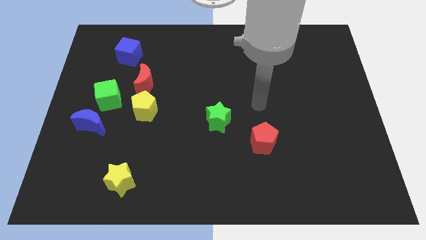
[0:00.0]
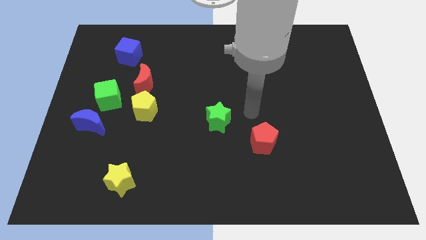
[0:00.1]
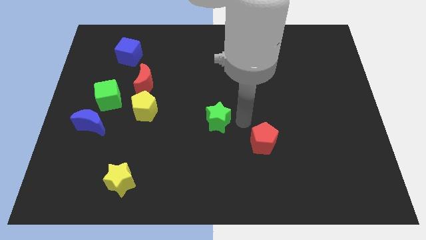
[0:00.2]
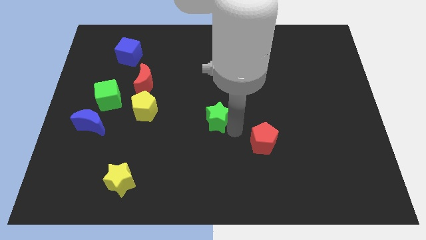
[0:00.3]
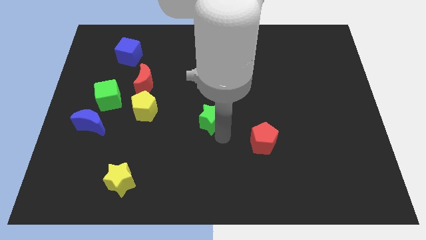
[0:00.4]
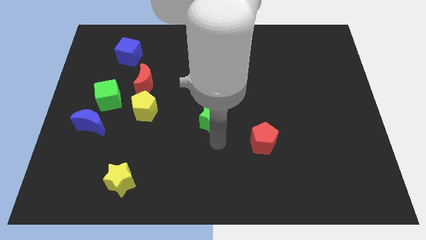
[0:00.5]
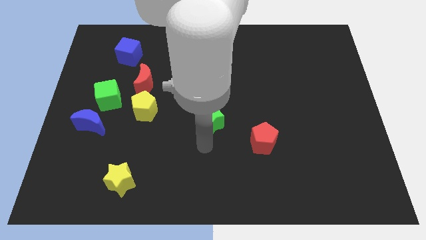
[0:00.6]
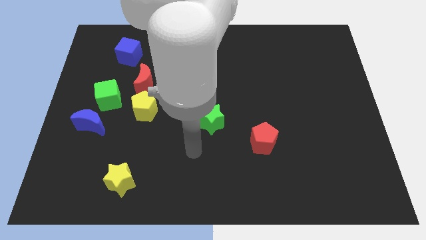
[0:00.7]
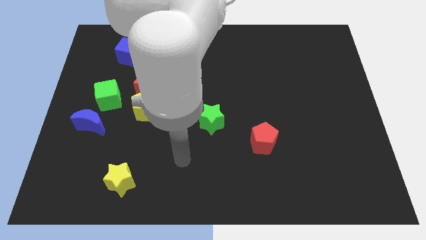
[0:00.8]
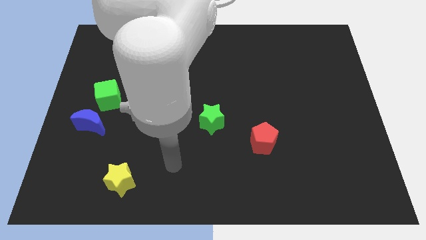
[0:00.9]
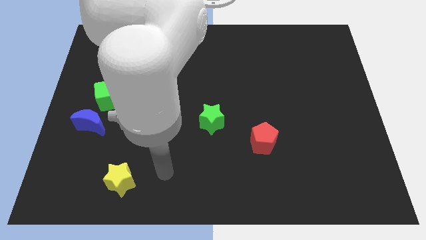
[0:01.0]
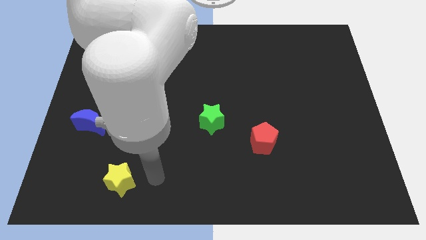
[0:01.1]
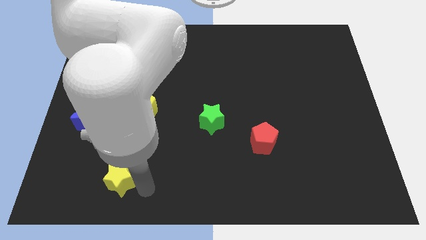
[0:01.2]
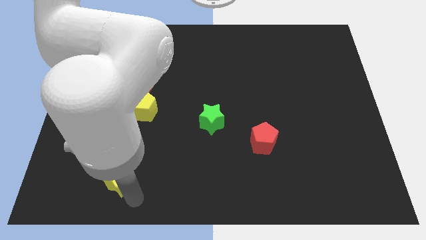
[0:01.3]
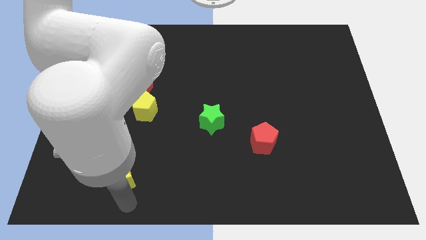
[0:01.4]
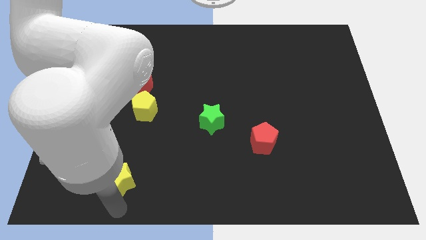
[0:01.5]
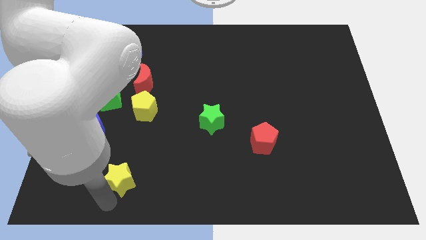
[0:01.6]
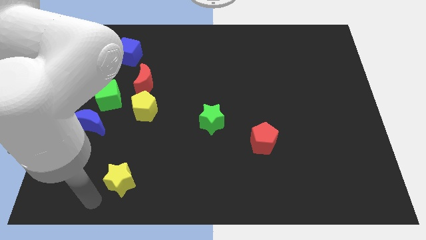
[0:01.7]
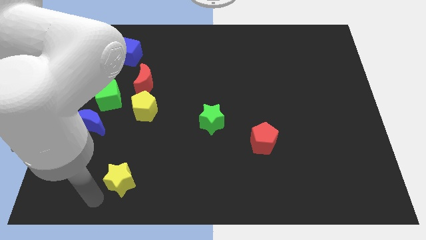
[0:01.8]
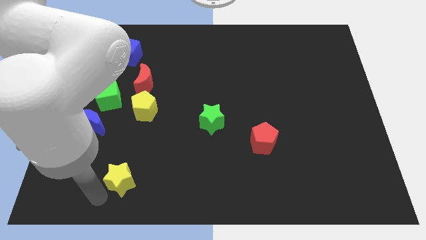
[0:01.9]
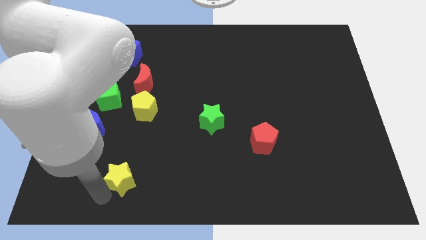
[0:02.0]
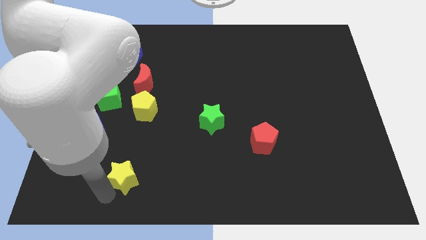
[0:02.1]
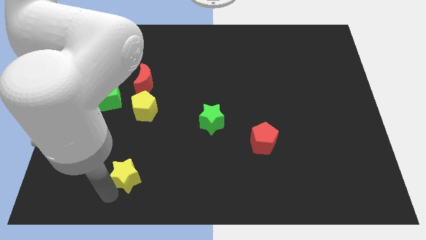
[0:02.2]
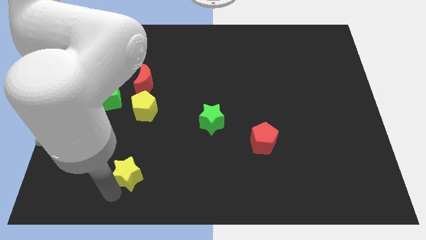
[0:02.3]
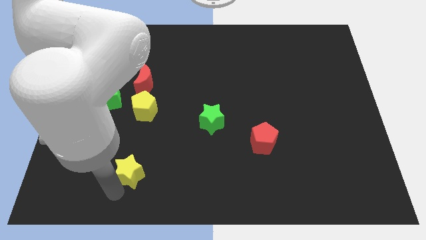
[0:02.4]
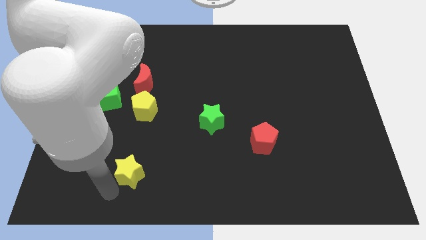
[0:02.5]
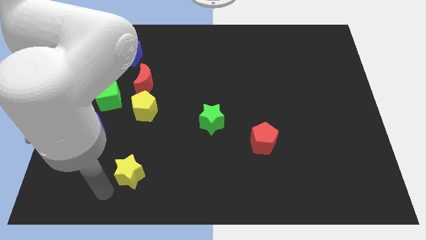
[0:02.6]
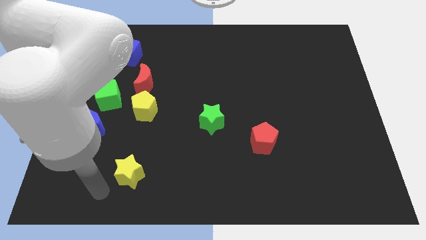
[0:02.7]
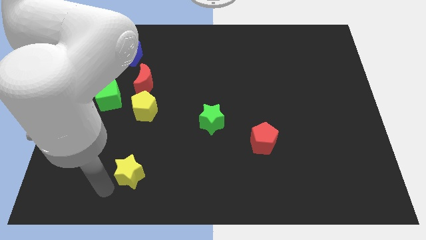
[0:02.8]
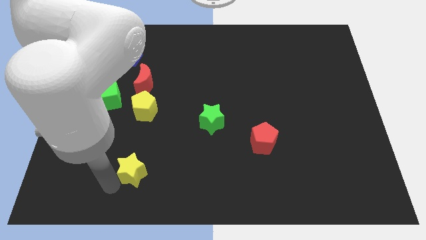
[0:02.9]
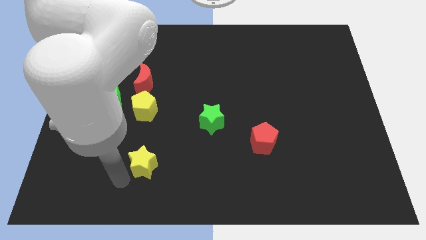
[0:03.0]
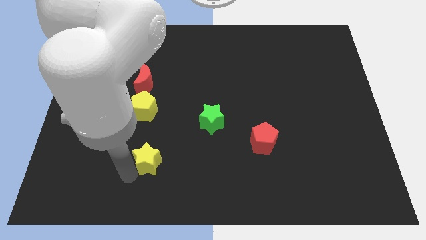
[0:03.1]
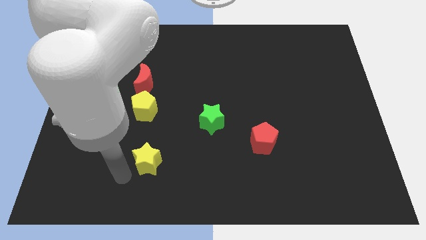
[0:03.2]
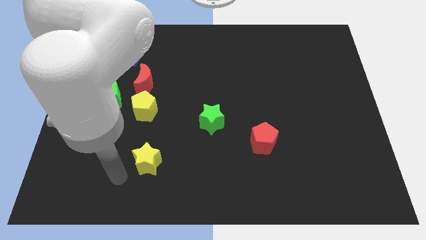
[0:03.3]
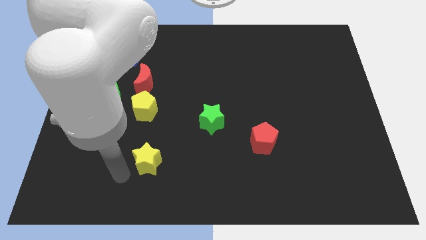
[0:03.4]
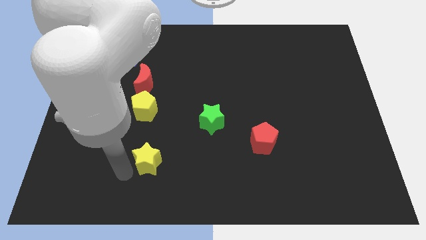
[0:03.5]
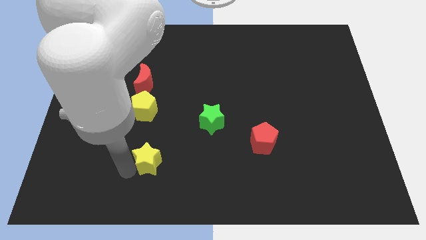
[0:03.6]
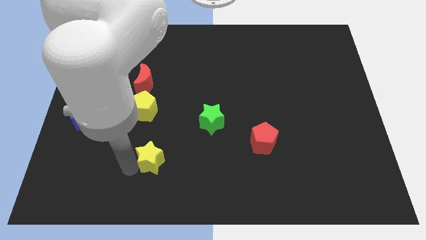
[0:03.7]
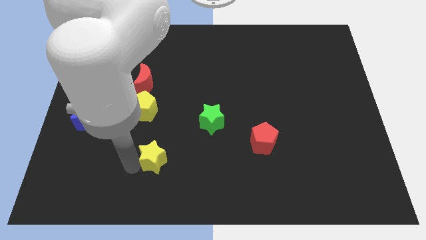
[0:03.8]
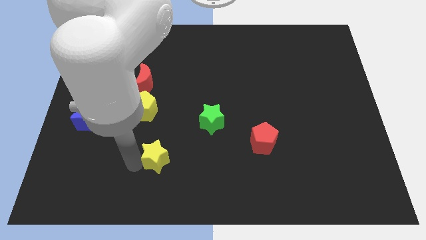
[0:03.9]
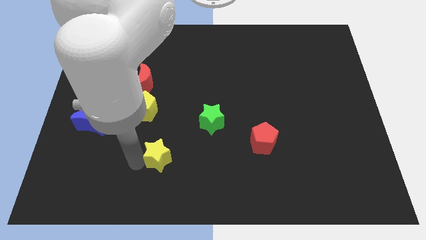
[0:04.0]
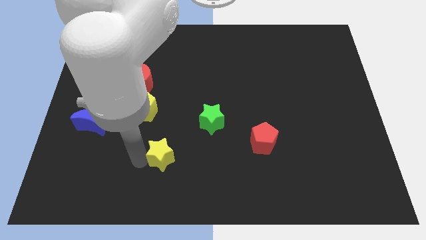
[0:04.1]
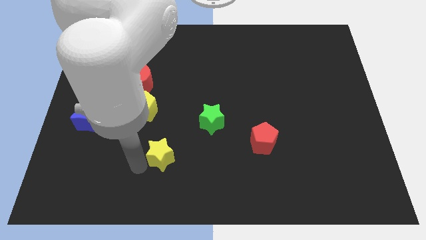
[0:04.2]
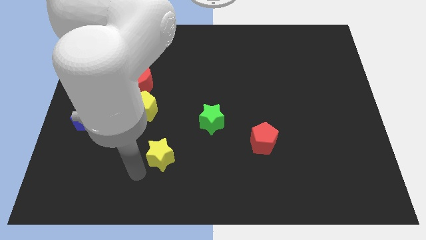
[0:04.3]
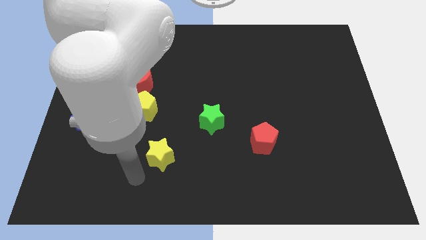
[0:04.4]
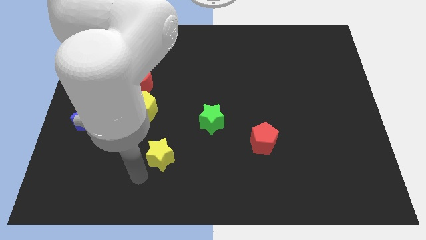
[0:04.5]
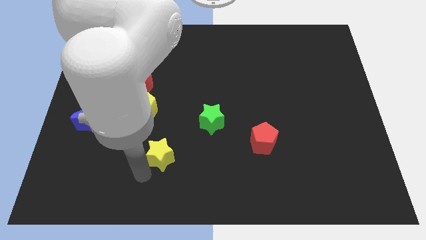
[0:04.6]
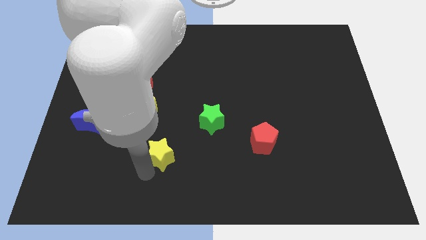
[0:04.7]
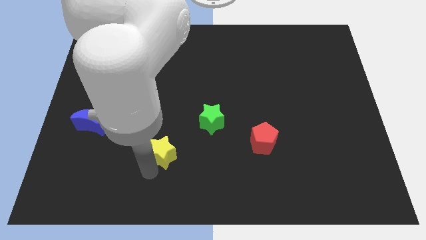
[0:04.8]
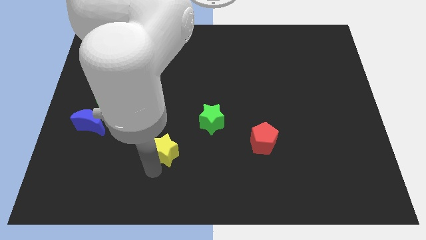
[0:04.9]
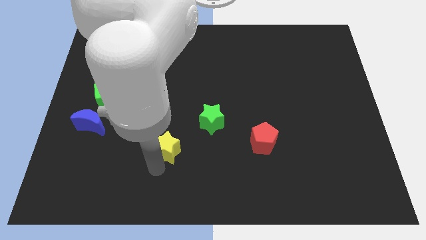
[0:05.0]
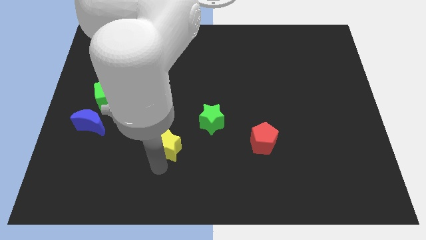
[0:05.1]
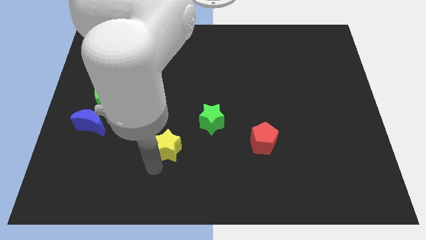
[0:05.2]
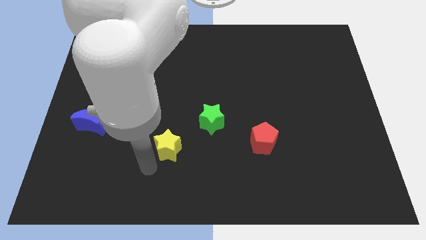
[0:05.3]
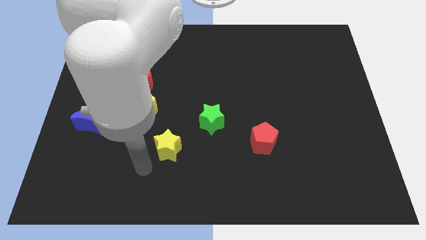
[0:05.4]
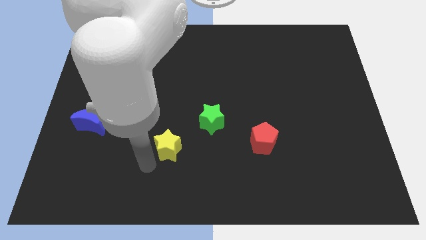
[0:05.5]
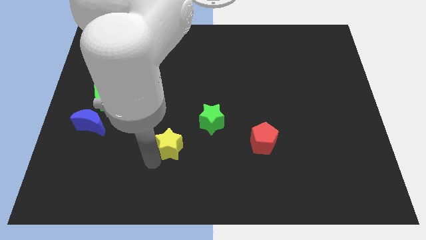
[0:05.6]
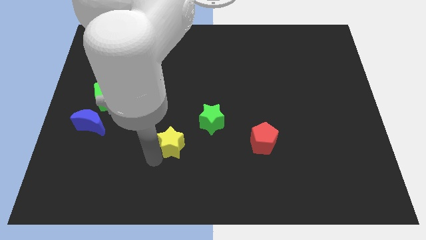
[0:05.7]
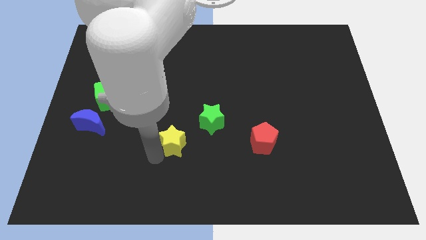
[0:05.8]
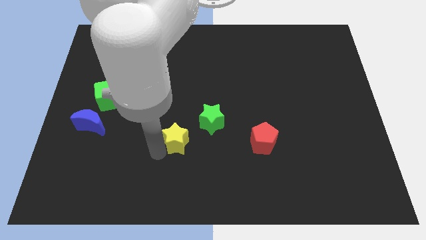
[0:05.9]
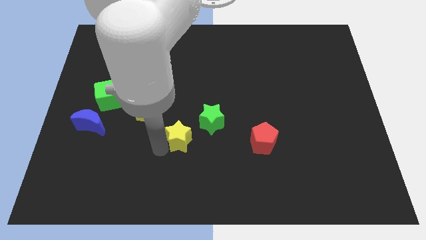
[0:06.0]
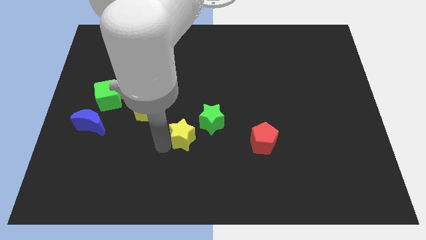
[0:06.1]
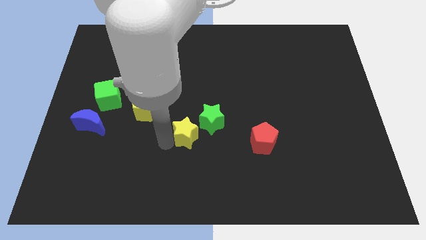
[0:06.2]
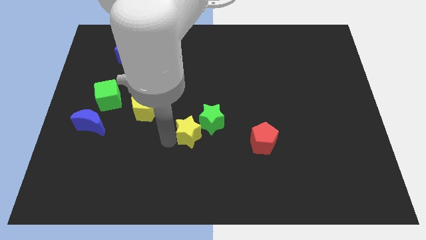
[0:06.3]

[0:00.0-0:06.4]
put the yellow star towards the green star

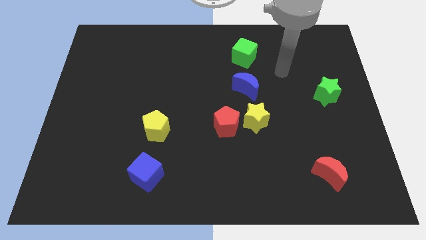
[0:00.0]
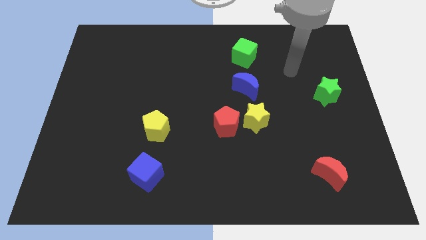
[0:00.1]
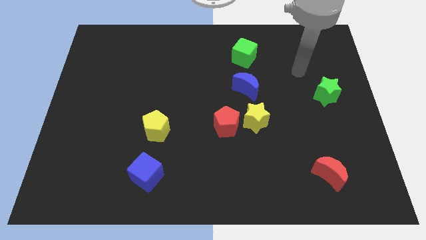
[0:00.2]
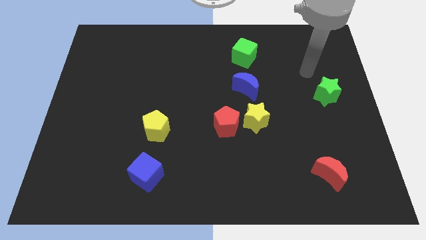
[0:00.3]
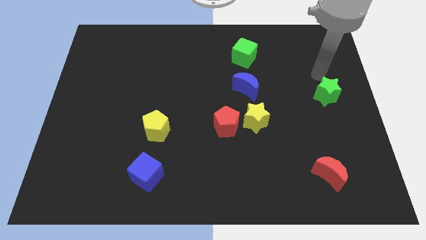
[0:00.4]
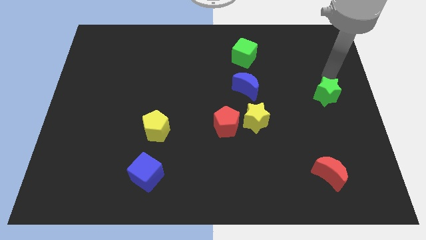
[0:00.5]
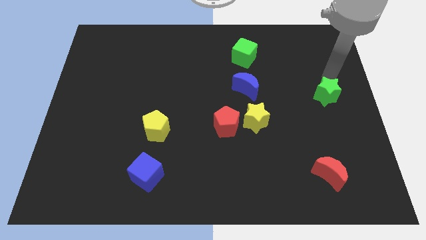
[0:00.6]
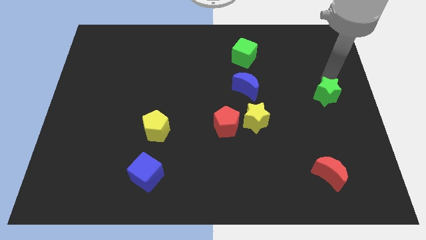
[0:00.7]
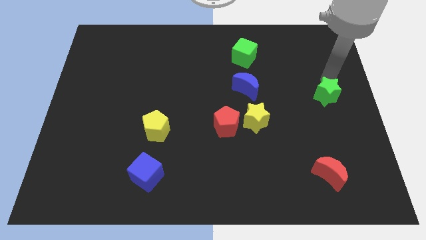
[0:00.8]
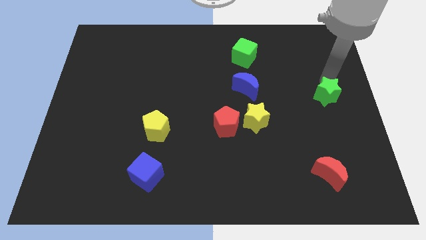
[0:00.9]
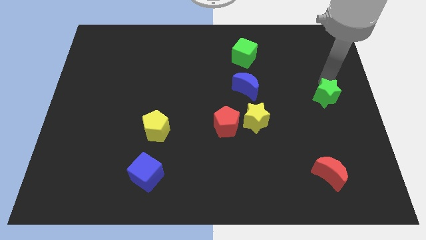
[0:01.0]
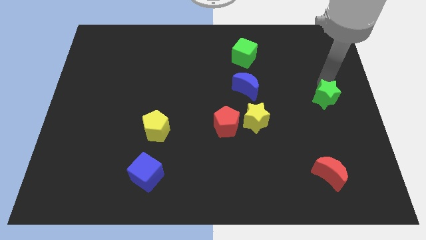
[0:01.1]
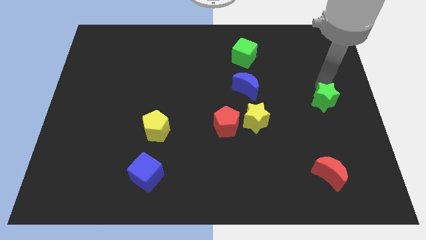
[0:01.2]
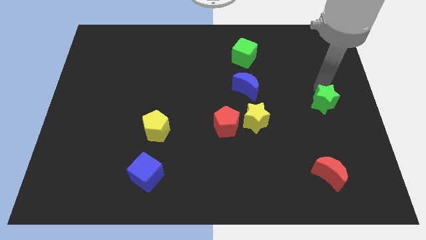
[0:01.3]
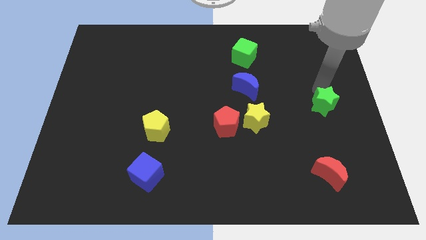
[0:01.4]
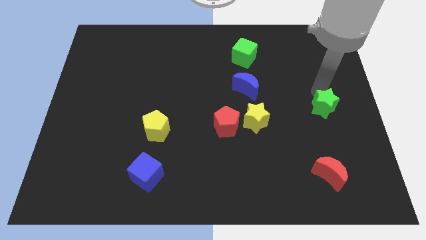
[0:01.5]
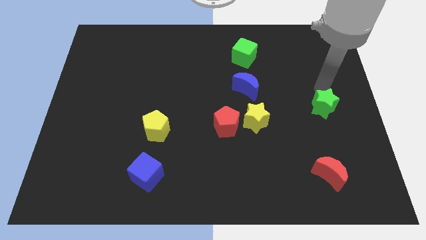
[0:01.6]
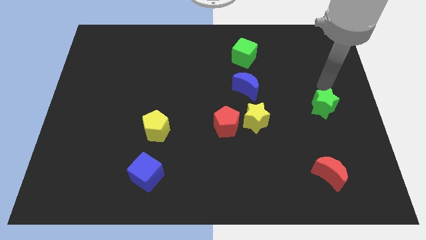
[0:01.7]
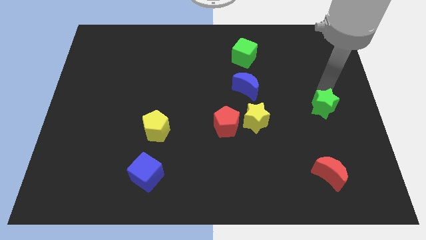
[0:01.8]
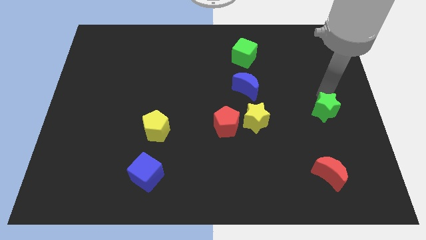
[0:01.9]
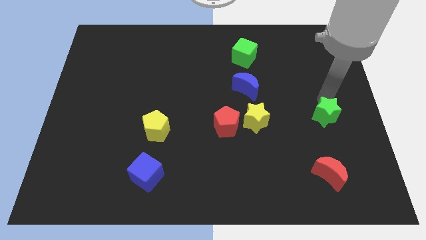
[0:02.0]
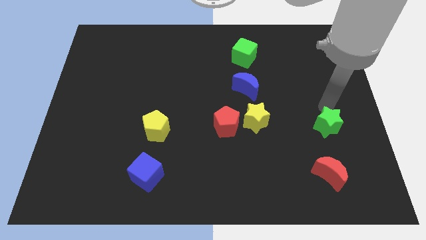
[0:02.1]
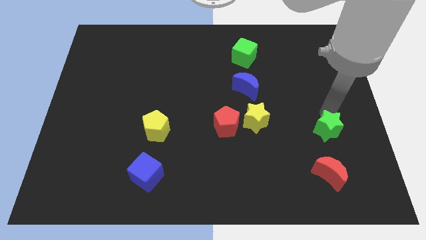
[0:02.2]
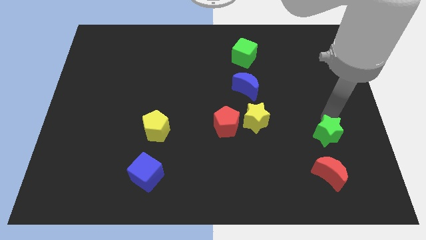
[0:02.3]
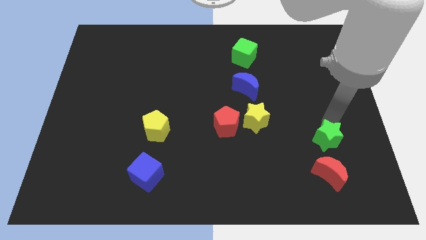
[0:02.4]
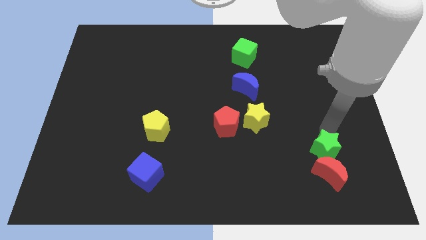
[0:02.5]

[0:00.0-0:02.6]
slide the green star next to the red moon
